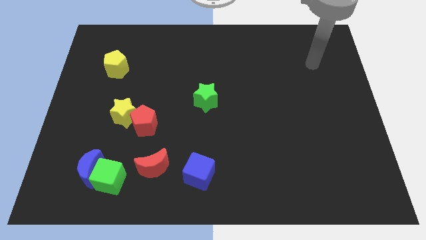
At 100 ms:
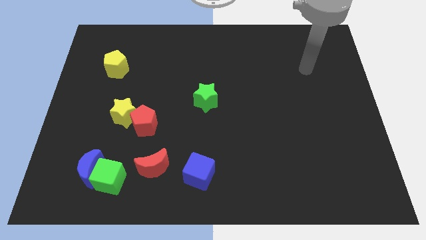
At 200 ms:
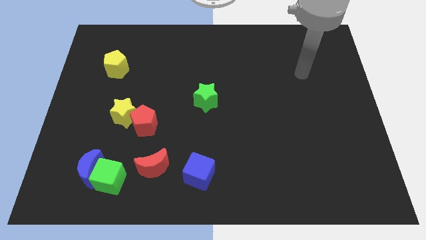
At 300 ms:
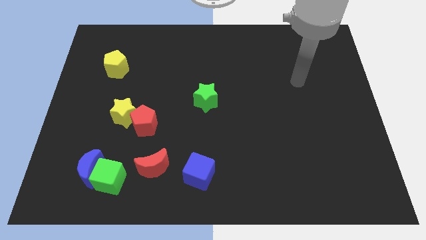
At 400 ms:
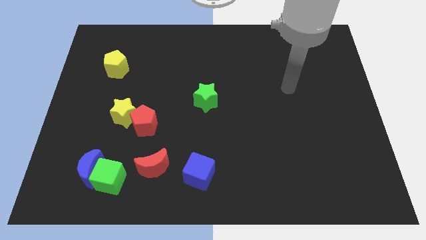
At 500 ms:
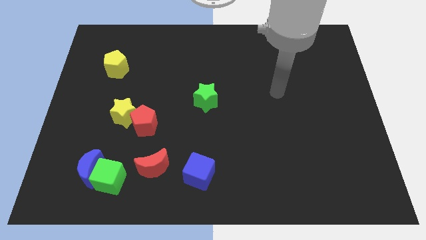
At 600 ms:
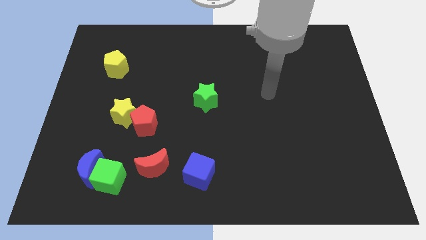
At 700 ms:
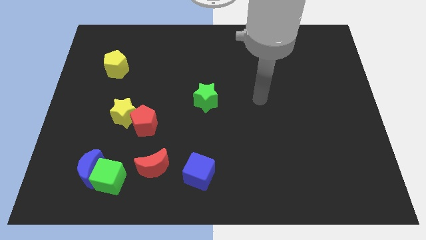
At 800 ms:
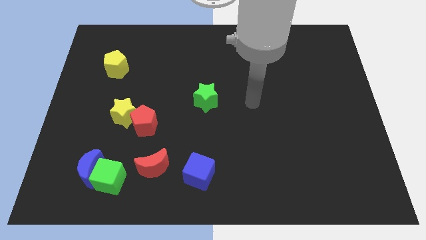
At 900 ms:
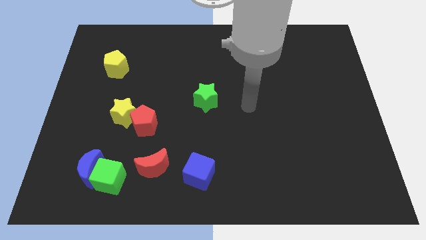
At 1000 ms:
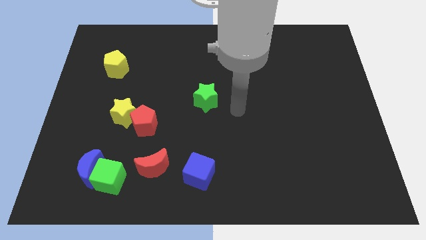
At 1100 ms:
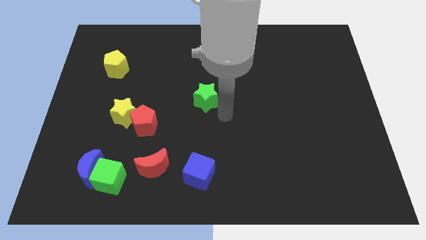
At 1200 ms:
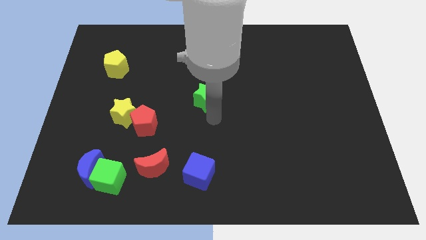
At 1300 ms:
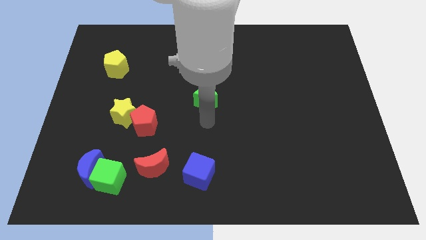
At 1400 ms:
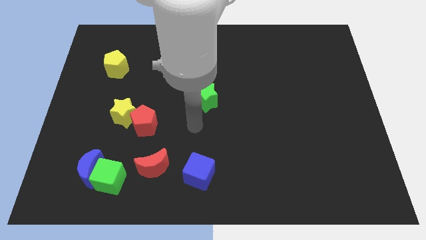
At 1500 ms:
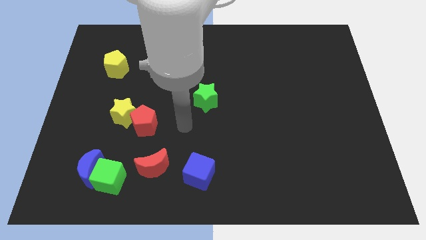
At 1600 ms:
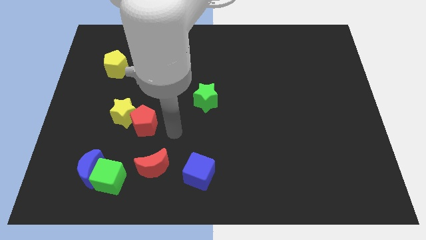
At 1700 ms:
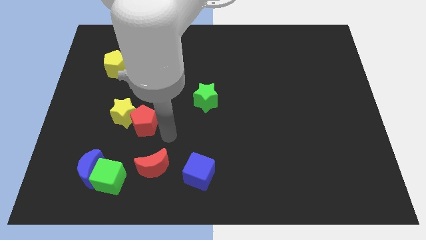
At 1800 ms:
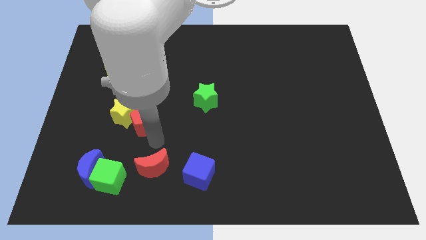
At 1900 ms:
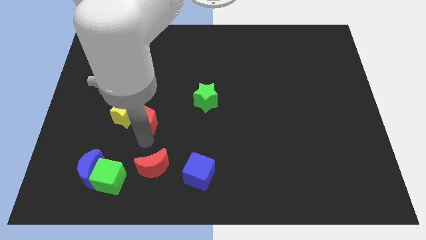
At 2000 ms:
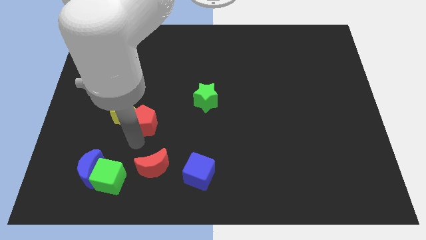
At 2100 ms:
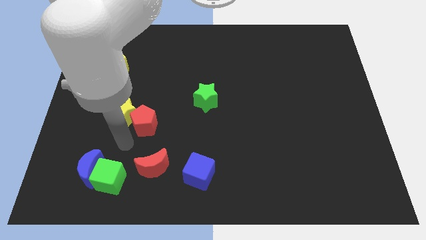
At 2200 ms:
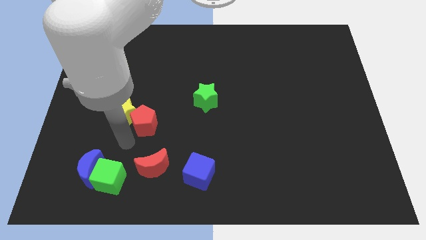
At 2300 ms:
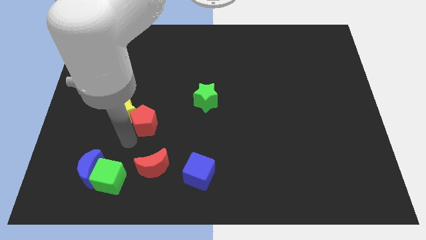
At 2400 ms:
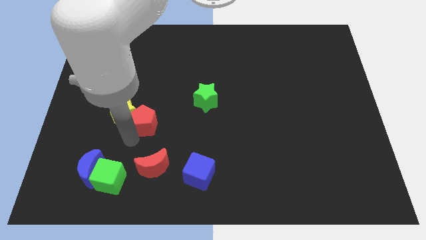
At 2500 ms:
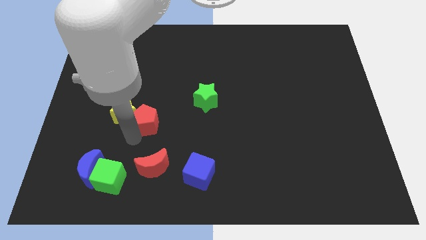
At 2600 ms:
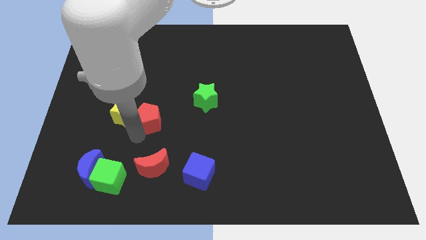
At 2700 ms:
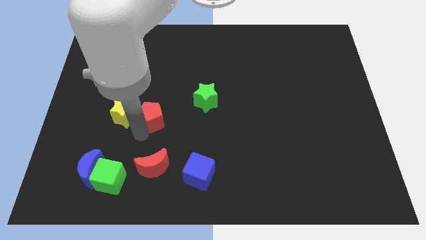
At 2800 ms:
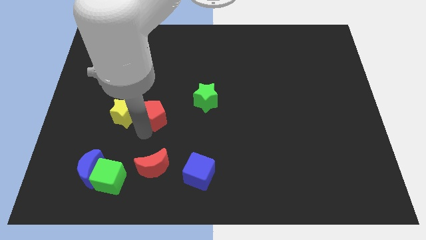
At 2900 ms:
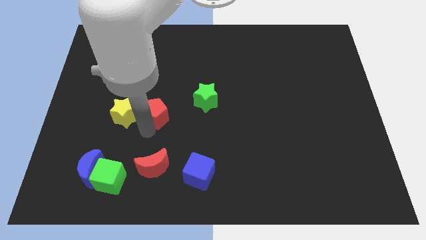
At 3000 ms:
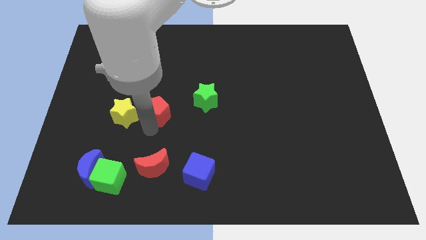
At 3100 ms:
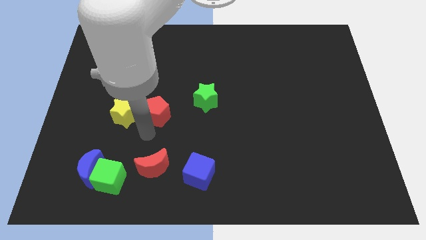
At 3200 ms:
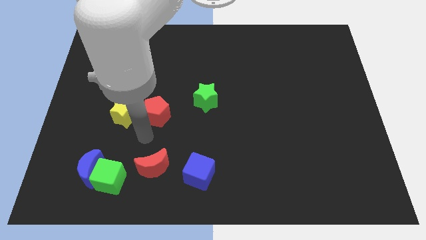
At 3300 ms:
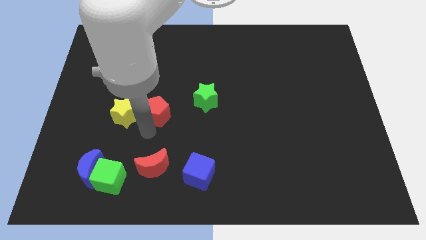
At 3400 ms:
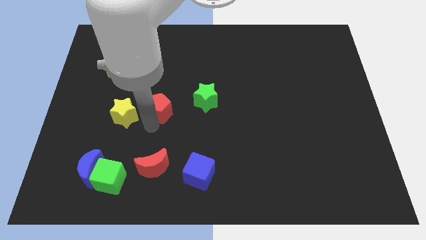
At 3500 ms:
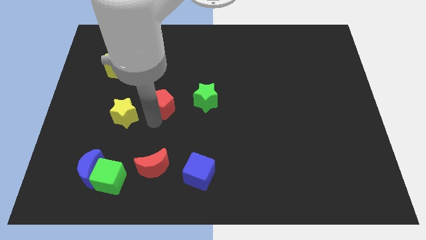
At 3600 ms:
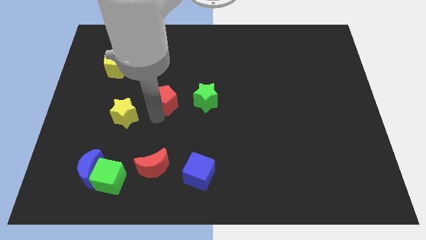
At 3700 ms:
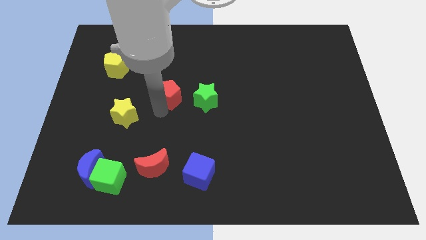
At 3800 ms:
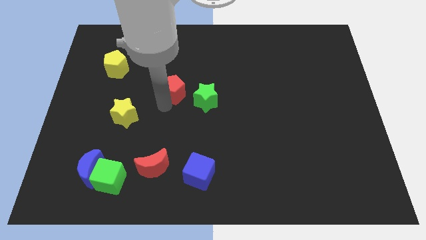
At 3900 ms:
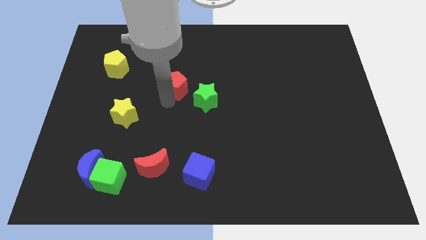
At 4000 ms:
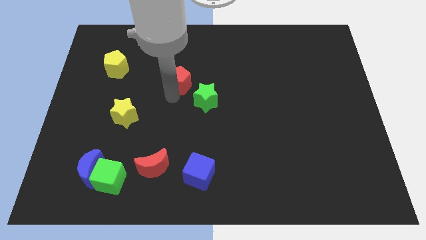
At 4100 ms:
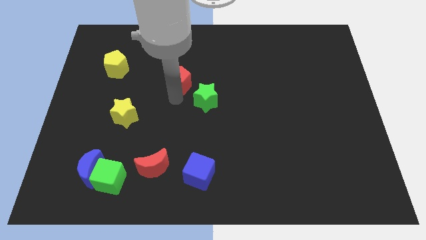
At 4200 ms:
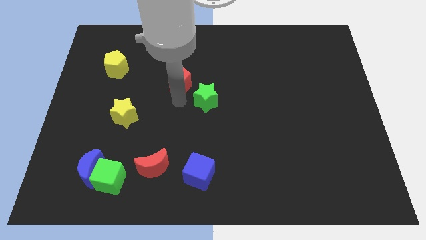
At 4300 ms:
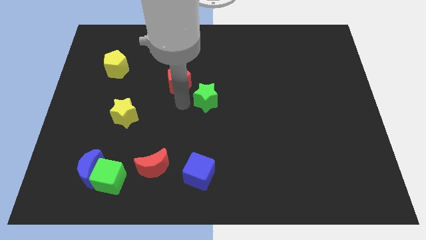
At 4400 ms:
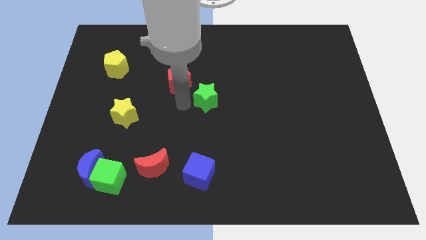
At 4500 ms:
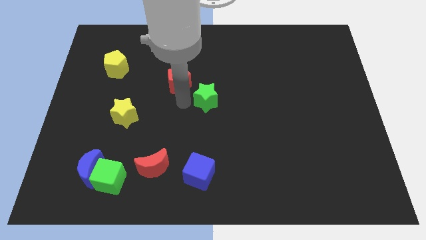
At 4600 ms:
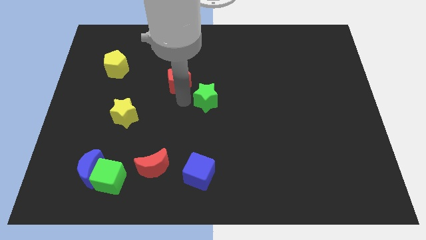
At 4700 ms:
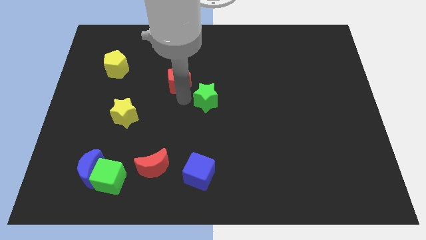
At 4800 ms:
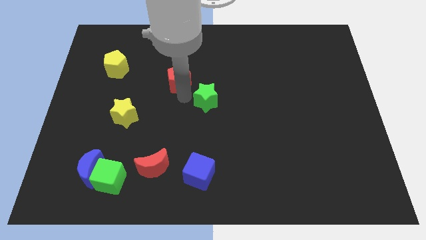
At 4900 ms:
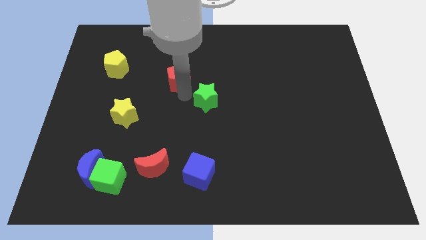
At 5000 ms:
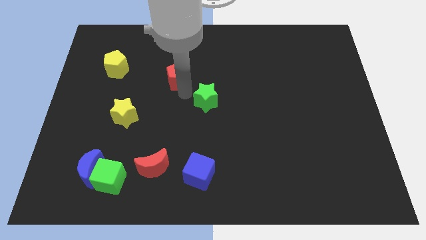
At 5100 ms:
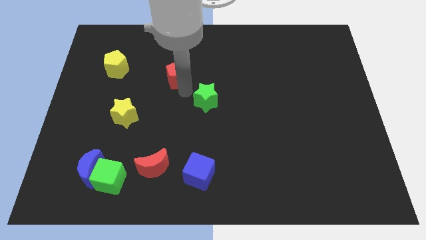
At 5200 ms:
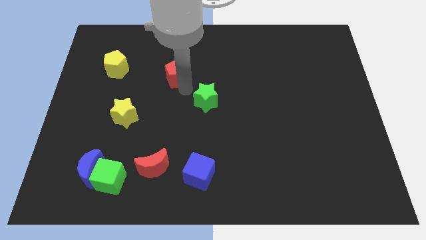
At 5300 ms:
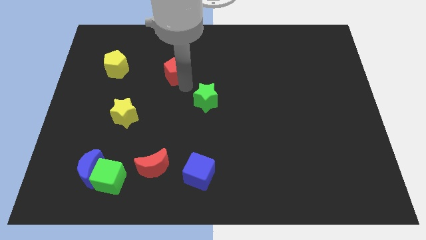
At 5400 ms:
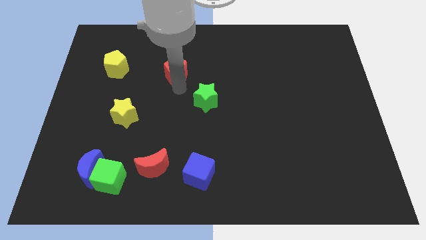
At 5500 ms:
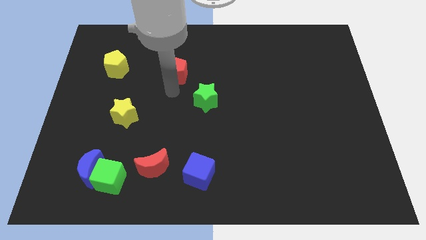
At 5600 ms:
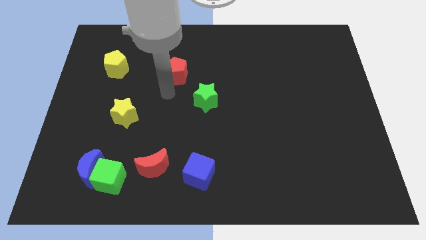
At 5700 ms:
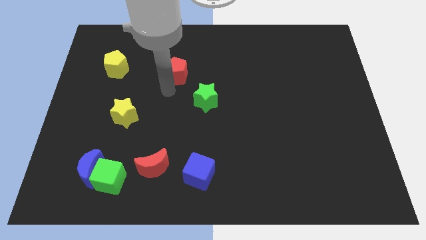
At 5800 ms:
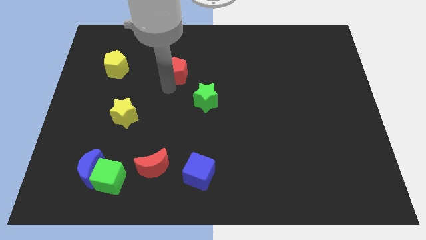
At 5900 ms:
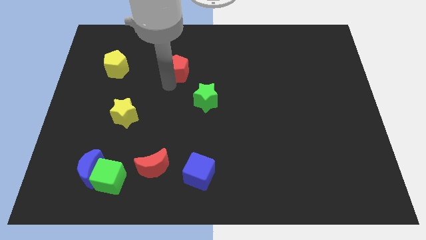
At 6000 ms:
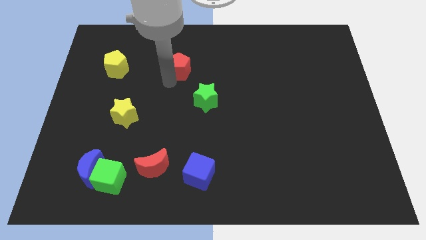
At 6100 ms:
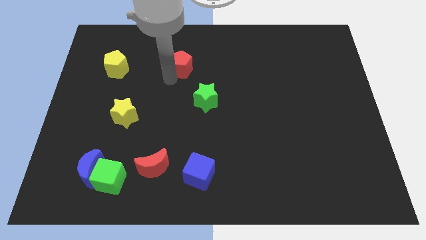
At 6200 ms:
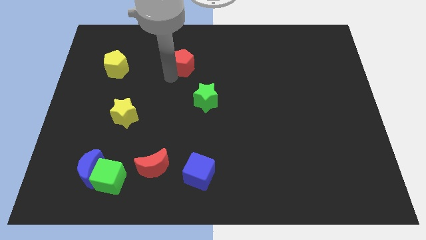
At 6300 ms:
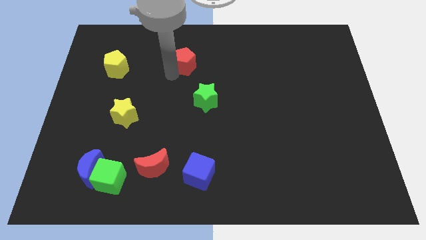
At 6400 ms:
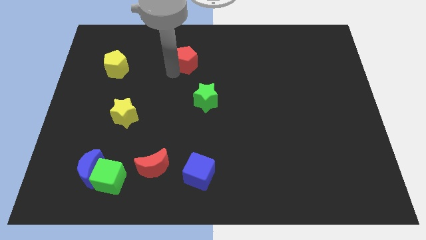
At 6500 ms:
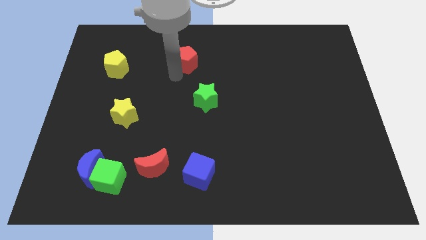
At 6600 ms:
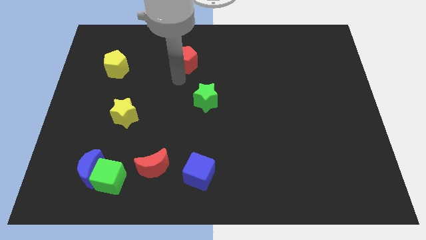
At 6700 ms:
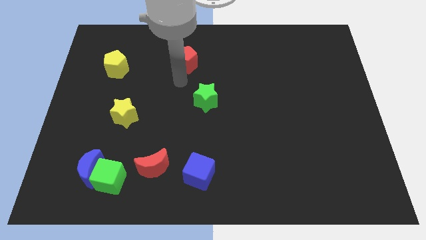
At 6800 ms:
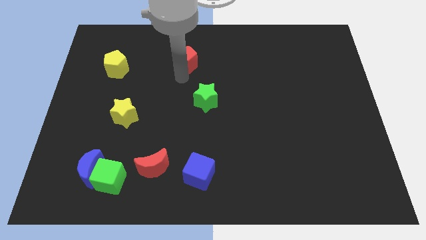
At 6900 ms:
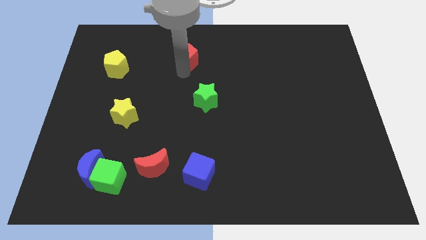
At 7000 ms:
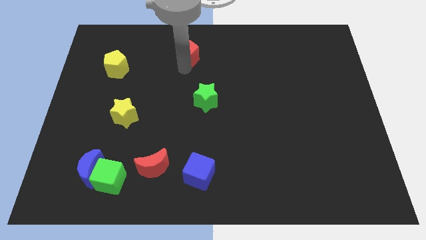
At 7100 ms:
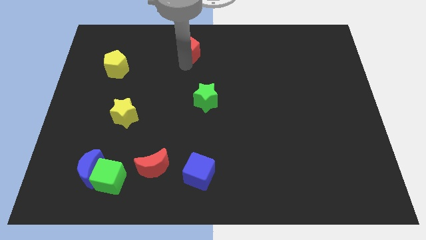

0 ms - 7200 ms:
move the red pentagon to the top
